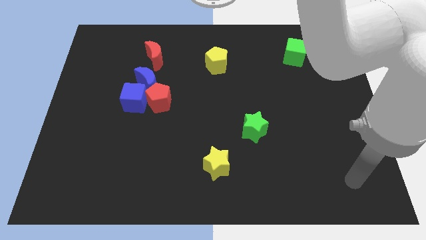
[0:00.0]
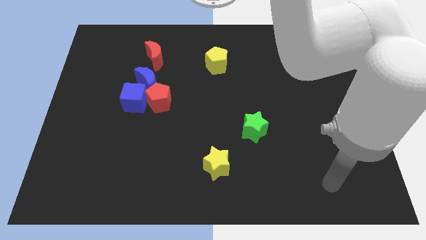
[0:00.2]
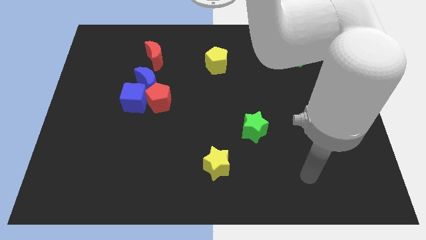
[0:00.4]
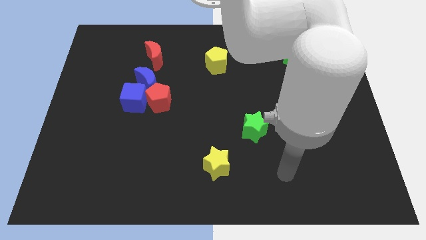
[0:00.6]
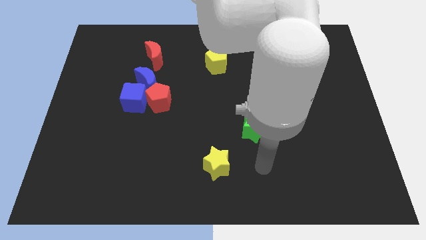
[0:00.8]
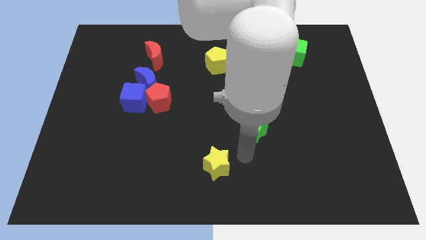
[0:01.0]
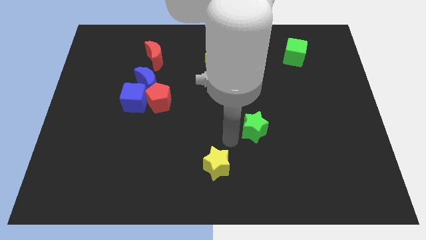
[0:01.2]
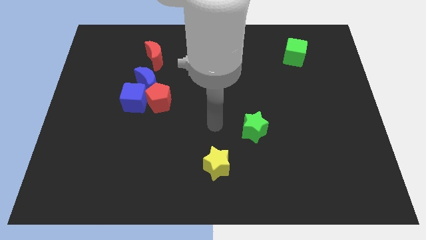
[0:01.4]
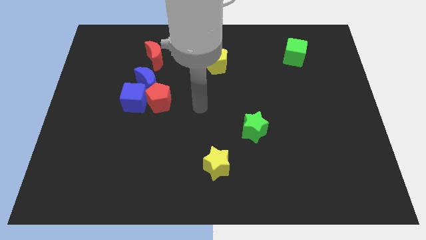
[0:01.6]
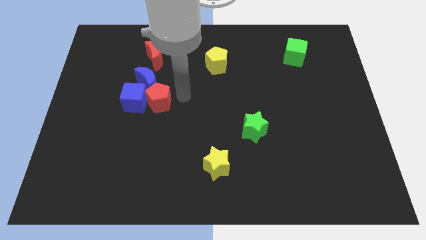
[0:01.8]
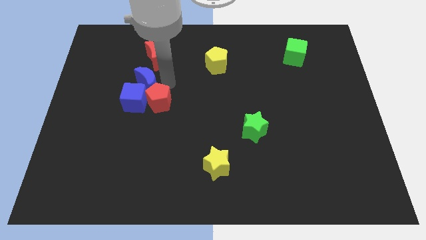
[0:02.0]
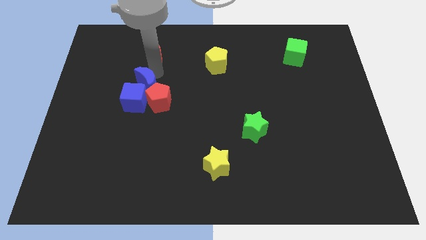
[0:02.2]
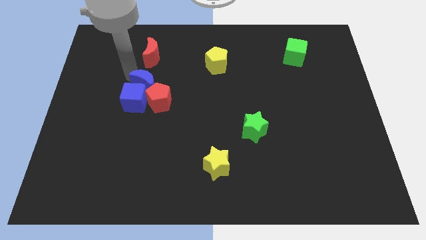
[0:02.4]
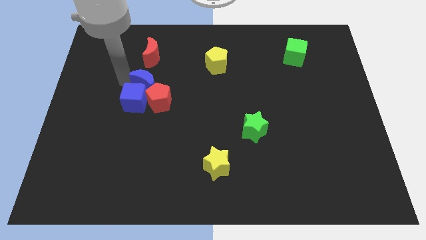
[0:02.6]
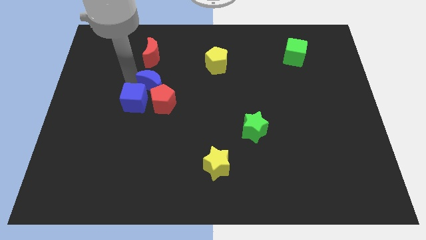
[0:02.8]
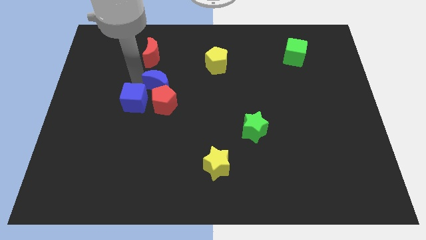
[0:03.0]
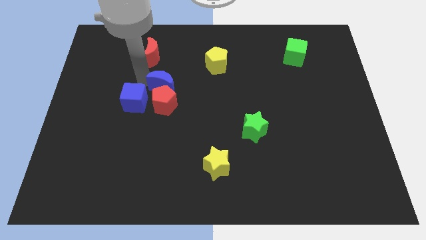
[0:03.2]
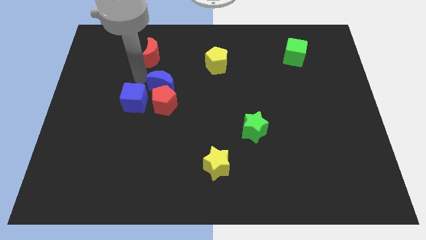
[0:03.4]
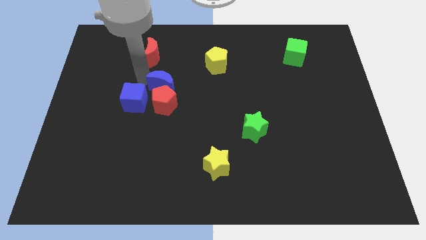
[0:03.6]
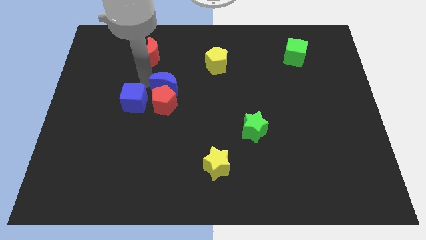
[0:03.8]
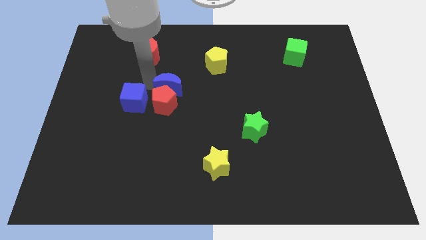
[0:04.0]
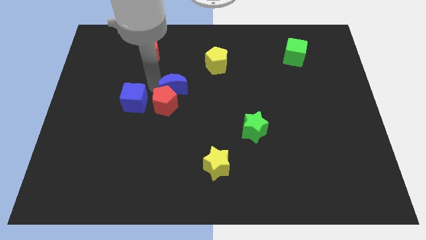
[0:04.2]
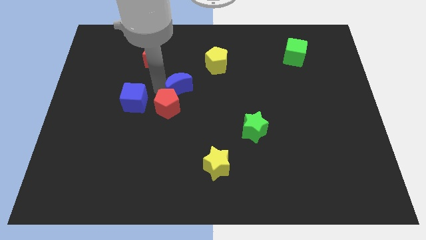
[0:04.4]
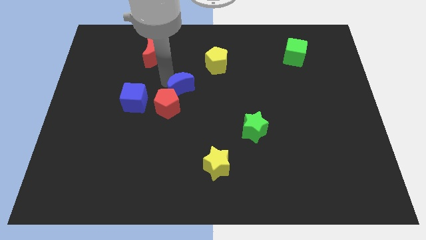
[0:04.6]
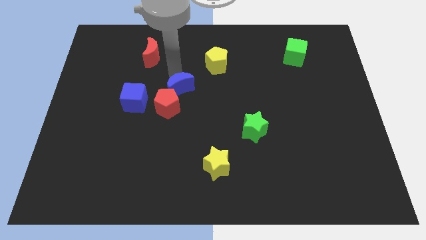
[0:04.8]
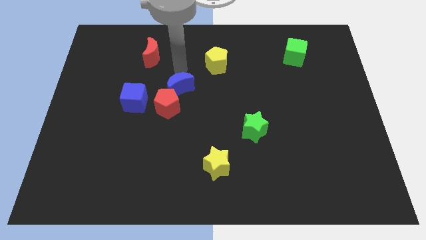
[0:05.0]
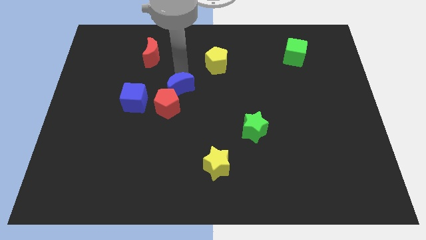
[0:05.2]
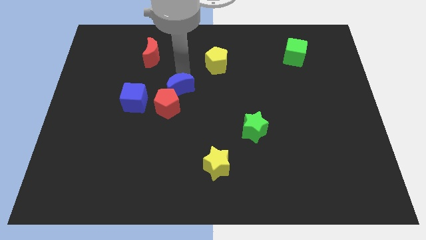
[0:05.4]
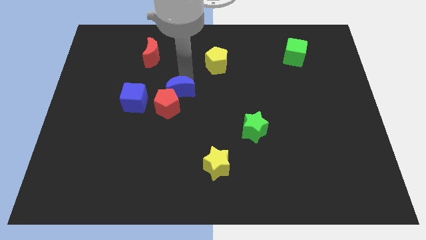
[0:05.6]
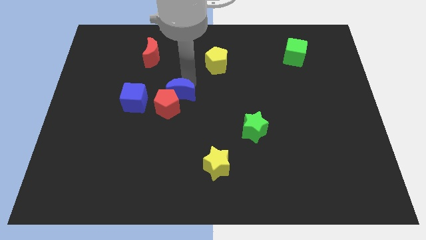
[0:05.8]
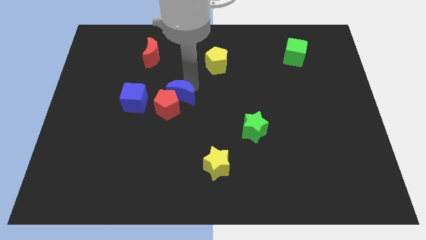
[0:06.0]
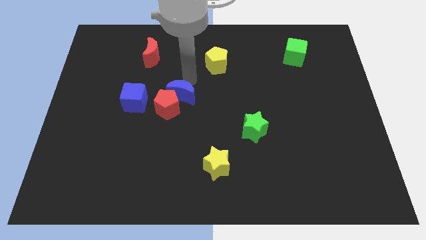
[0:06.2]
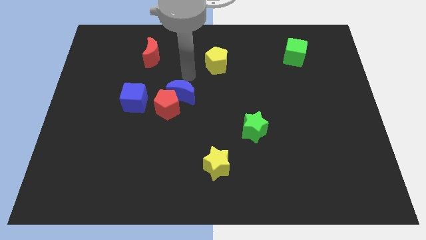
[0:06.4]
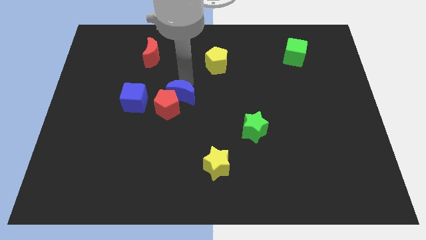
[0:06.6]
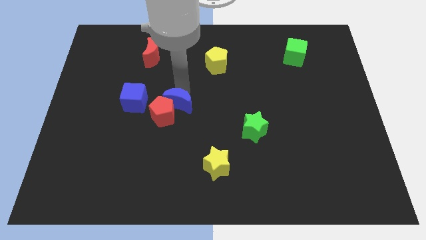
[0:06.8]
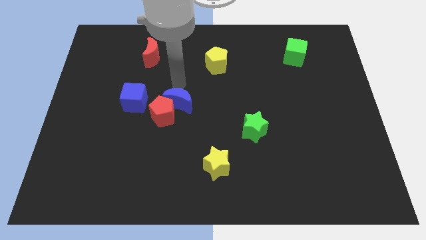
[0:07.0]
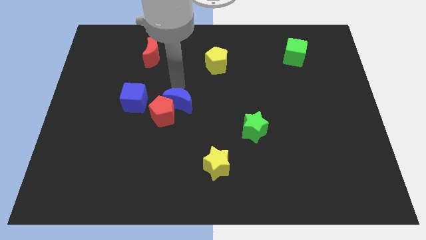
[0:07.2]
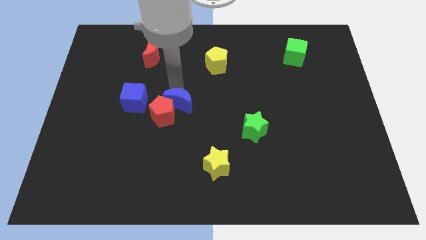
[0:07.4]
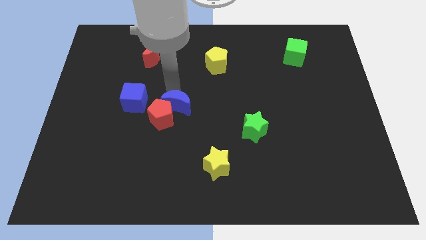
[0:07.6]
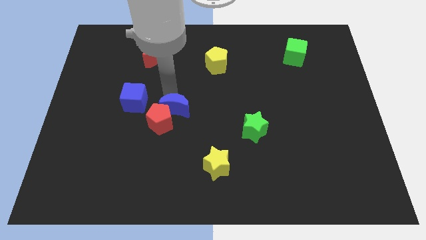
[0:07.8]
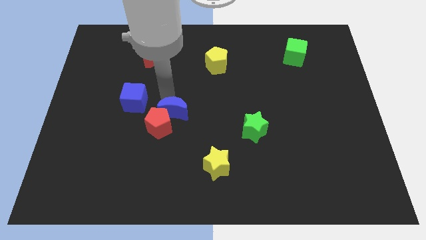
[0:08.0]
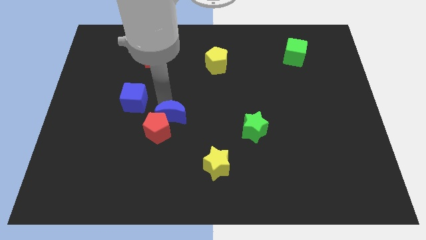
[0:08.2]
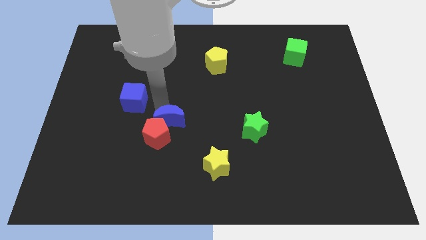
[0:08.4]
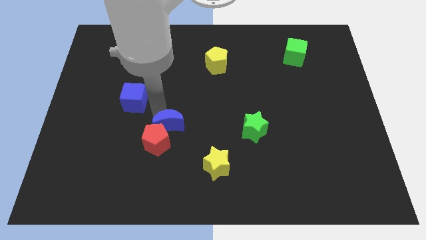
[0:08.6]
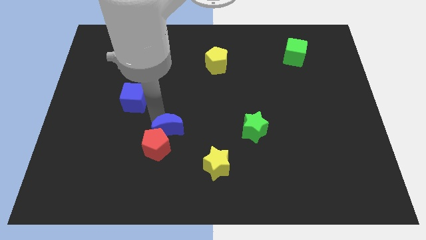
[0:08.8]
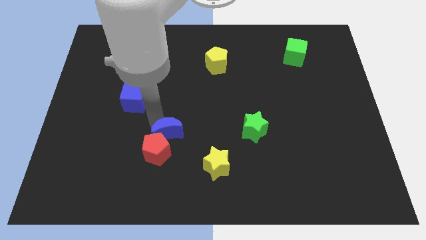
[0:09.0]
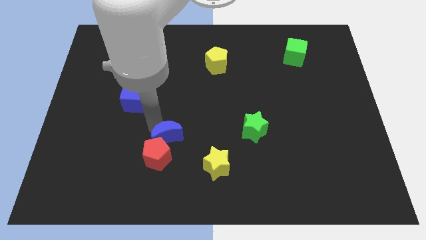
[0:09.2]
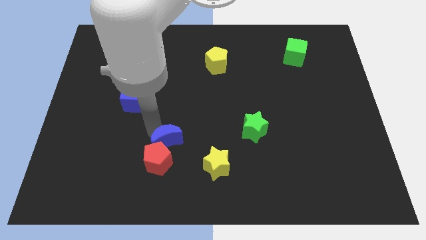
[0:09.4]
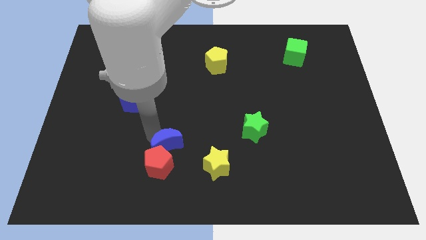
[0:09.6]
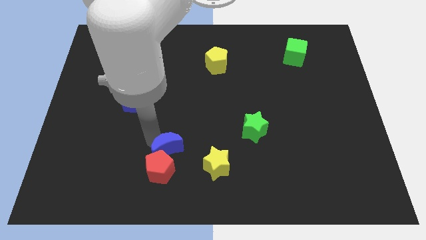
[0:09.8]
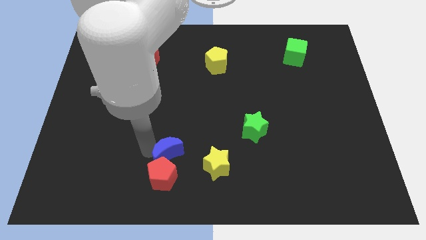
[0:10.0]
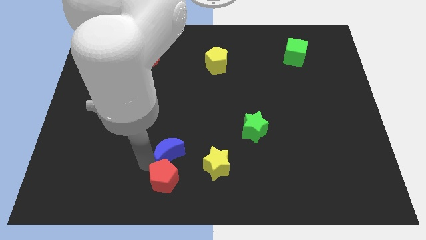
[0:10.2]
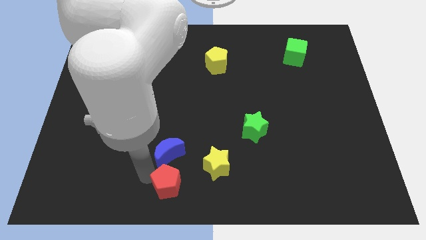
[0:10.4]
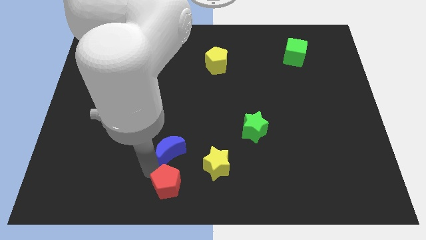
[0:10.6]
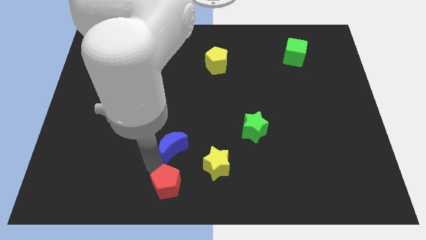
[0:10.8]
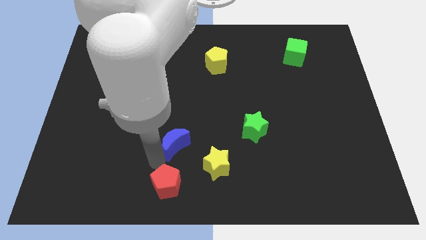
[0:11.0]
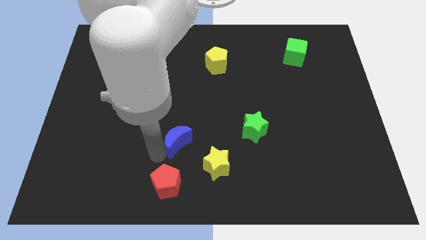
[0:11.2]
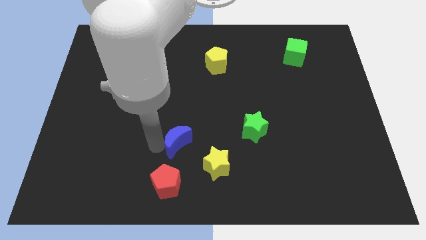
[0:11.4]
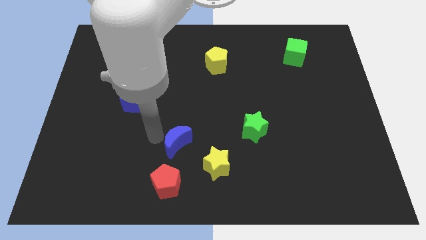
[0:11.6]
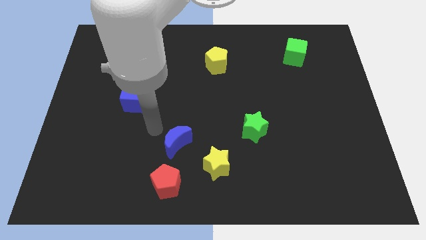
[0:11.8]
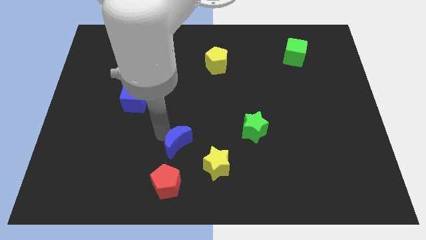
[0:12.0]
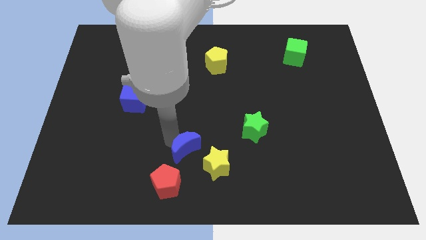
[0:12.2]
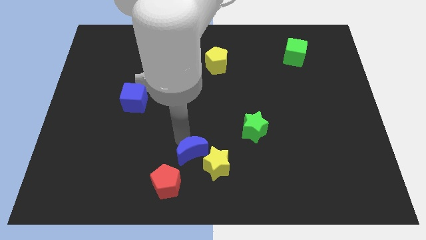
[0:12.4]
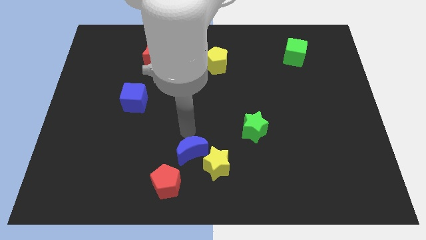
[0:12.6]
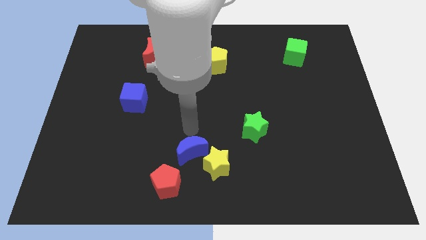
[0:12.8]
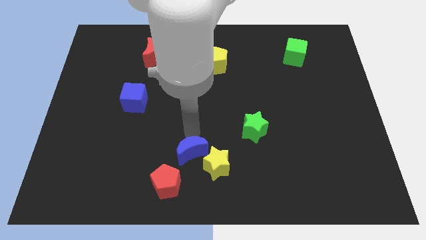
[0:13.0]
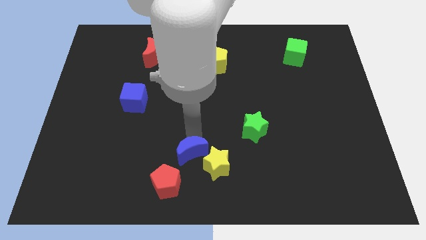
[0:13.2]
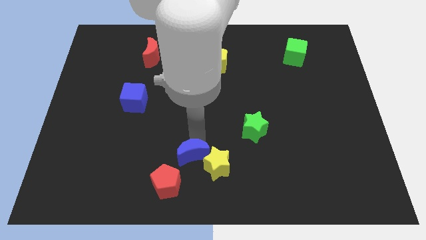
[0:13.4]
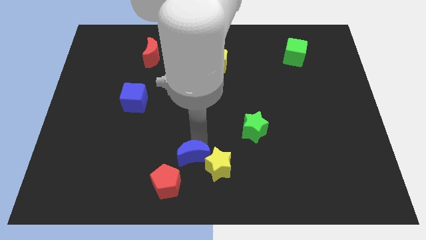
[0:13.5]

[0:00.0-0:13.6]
slide the blue moon to the bottom side

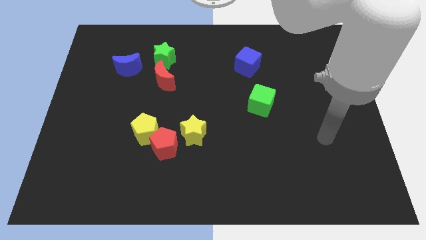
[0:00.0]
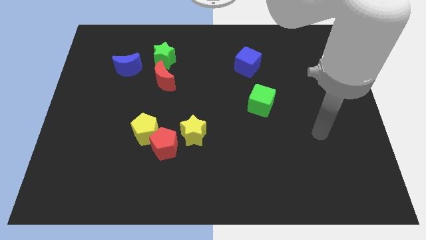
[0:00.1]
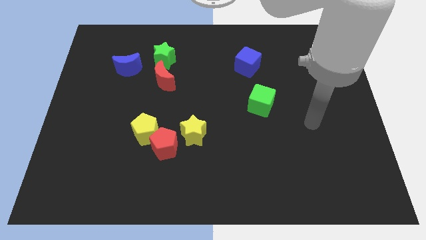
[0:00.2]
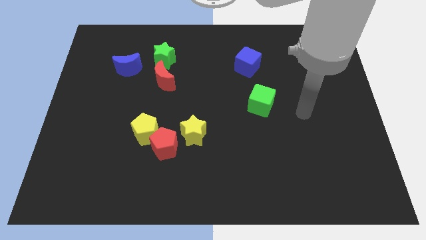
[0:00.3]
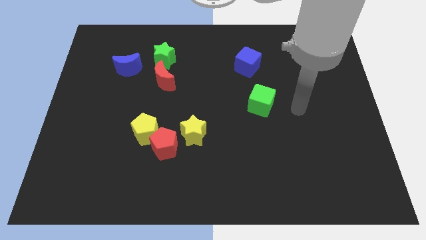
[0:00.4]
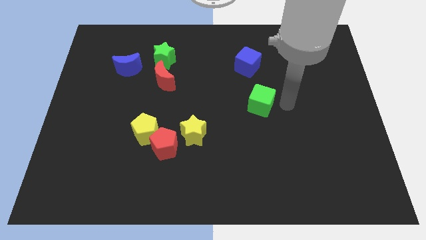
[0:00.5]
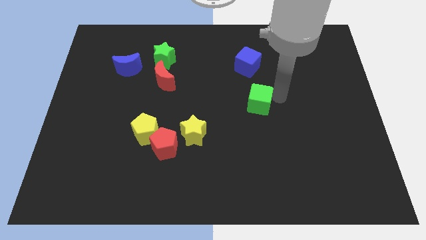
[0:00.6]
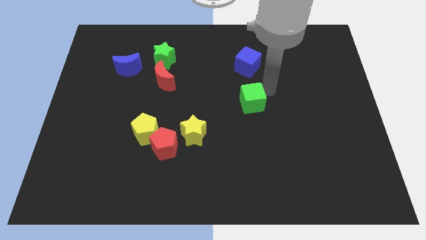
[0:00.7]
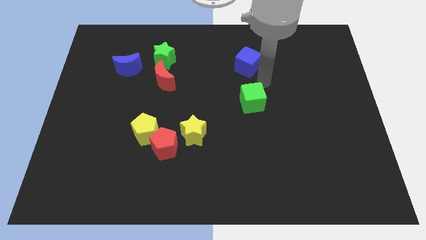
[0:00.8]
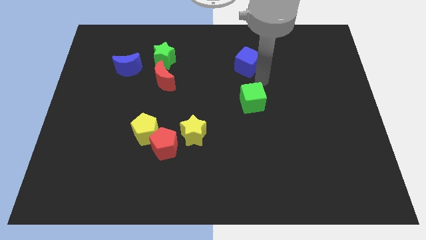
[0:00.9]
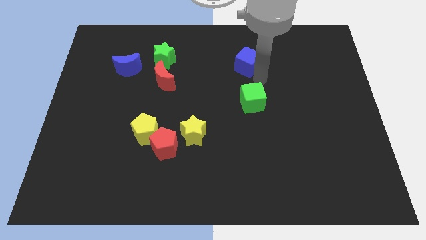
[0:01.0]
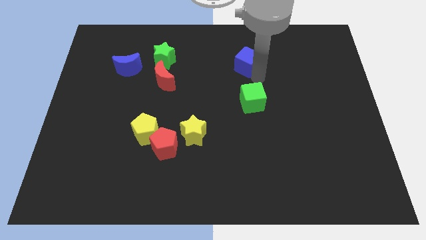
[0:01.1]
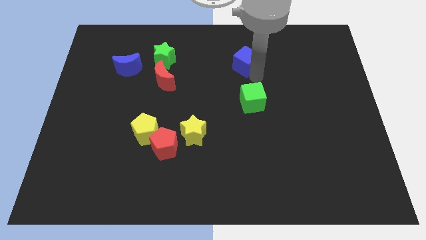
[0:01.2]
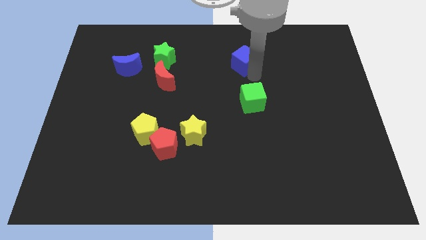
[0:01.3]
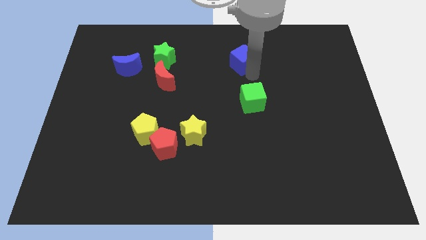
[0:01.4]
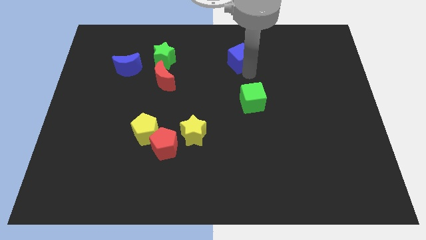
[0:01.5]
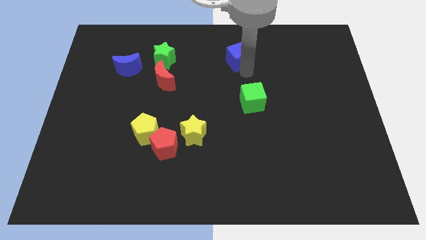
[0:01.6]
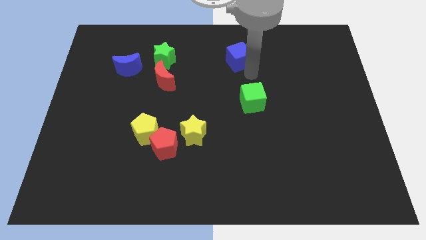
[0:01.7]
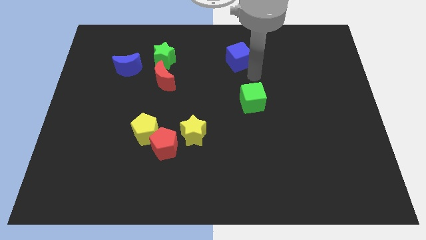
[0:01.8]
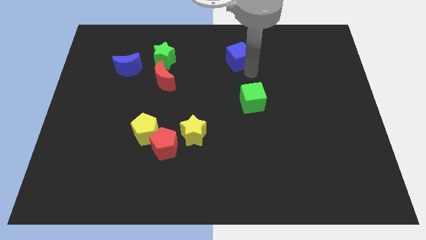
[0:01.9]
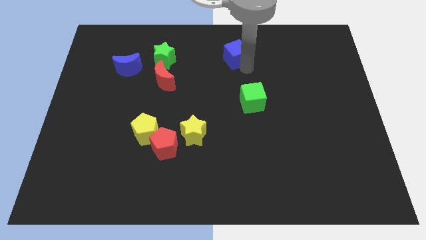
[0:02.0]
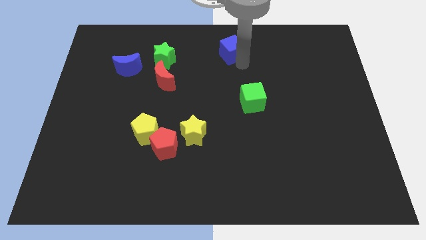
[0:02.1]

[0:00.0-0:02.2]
put the blue cube to the top
